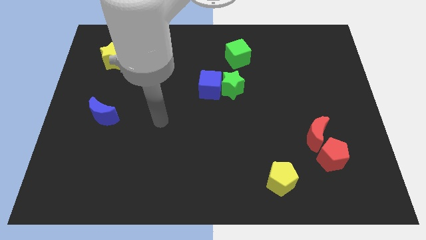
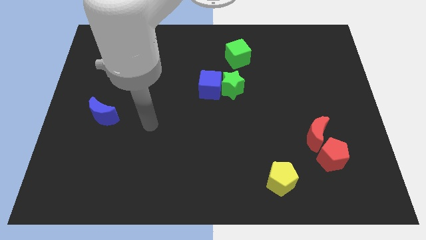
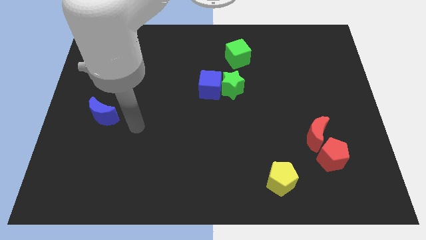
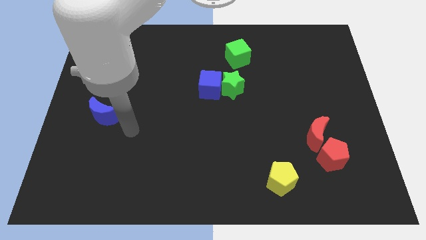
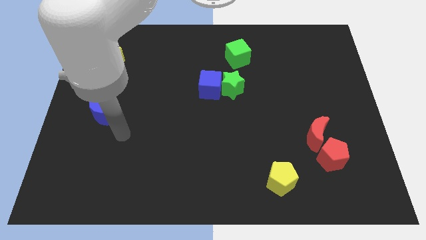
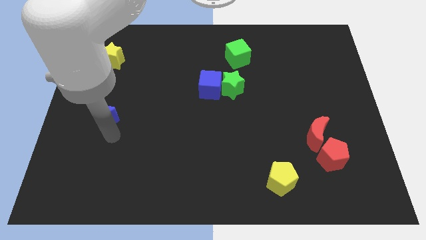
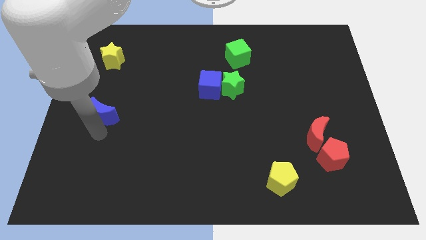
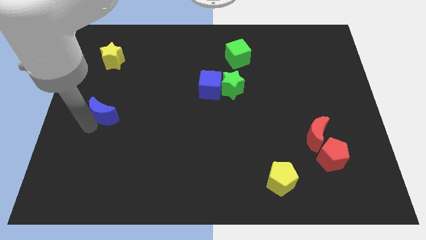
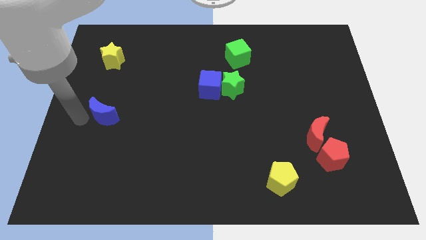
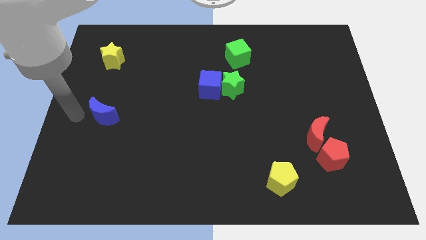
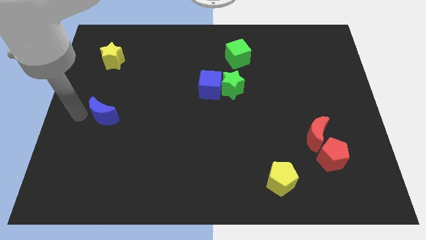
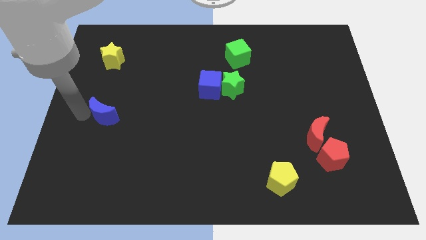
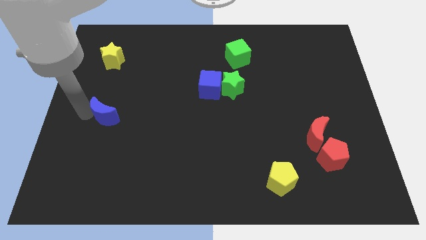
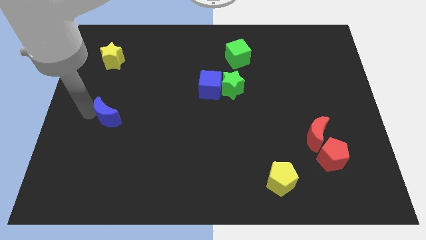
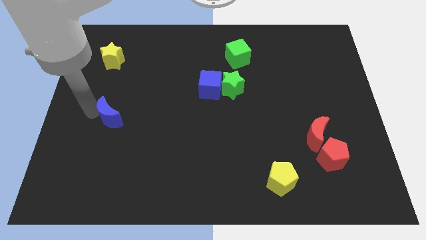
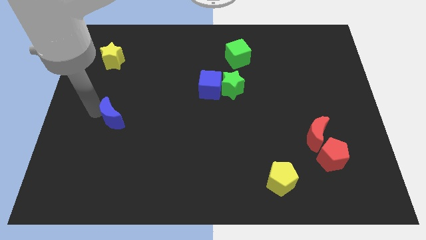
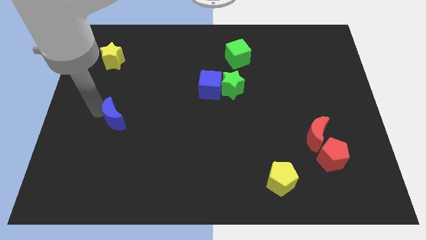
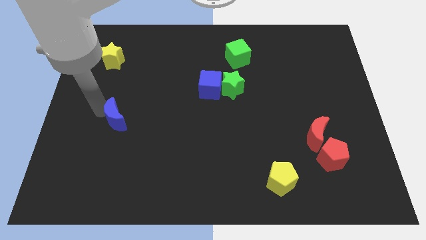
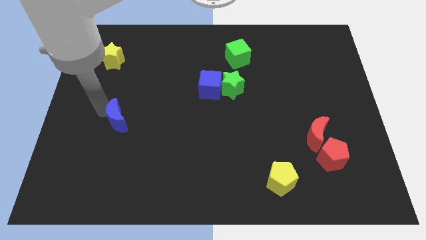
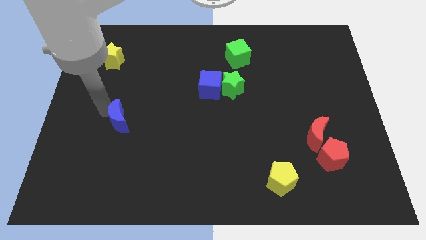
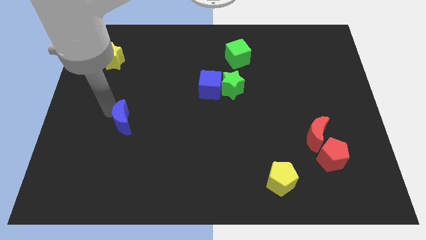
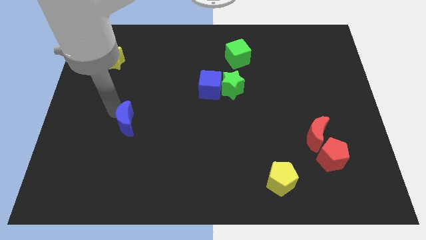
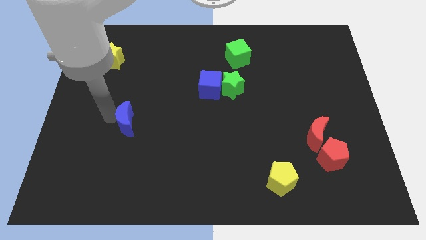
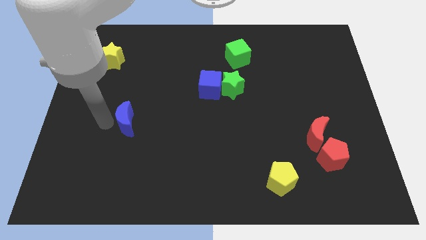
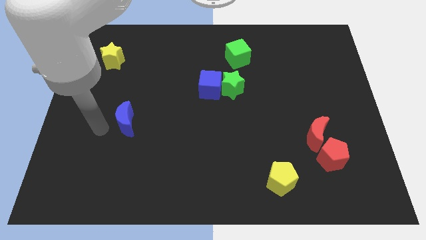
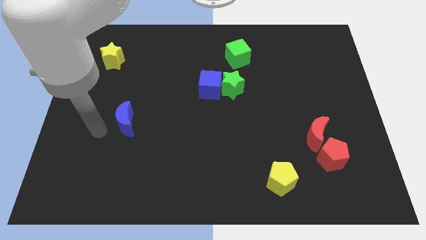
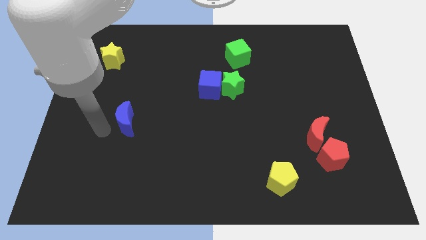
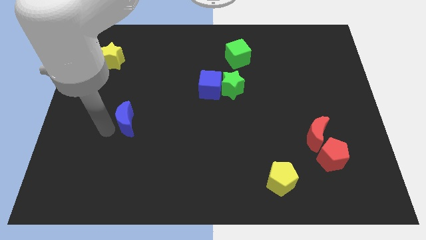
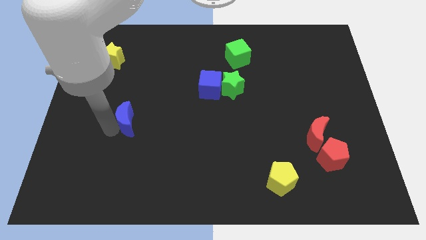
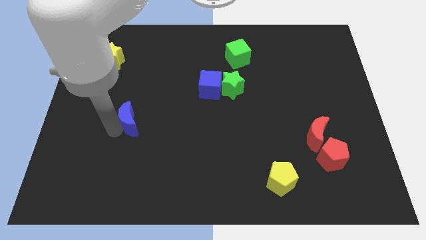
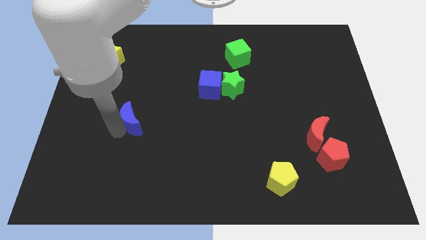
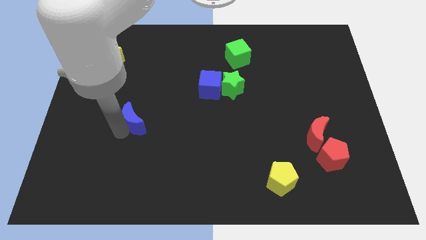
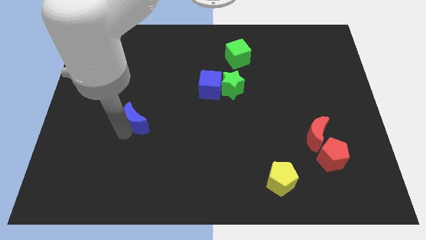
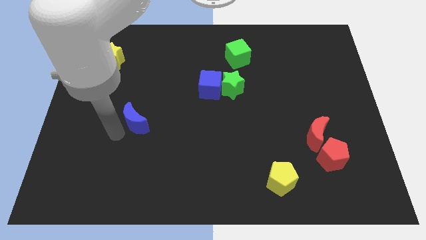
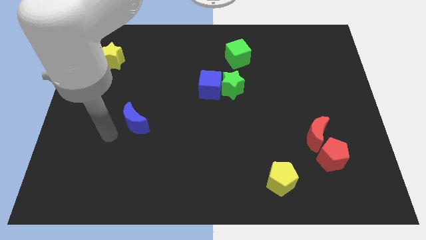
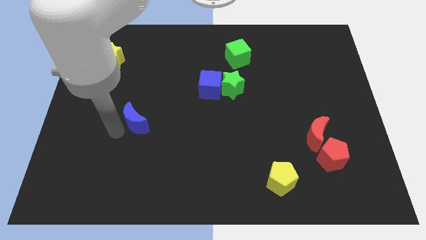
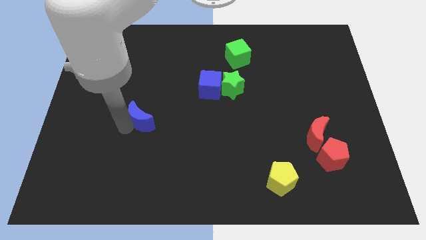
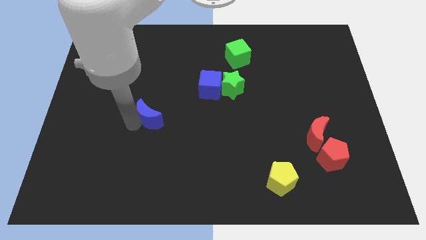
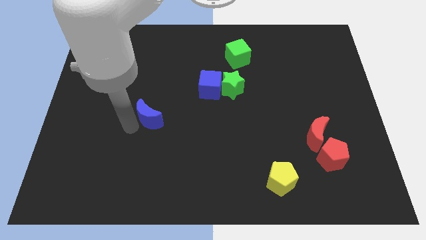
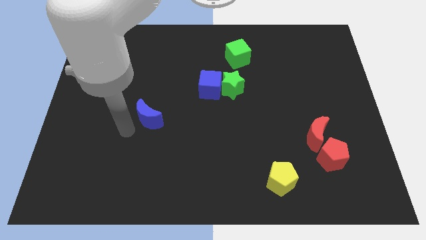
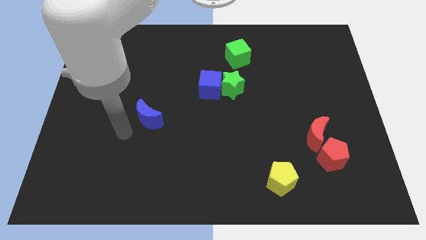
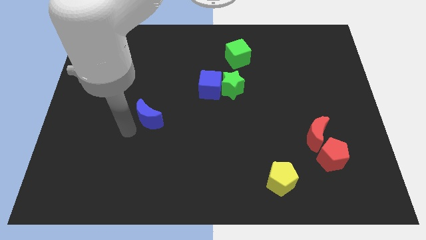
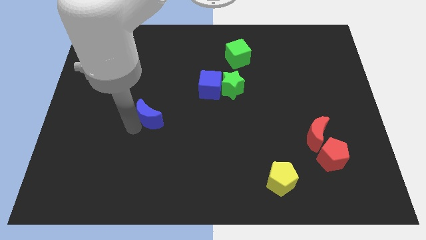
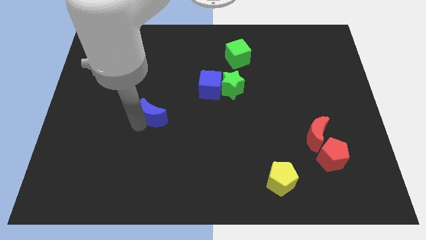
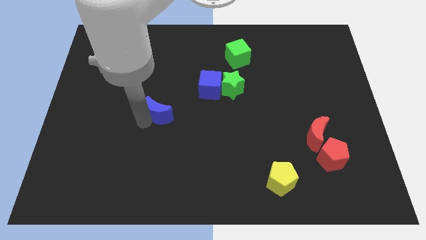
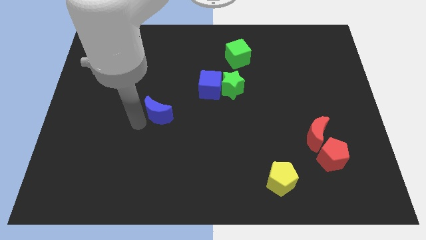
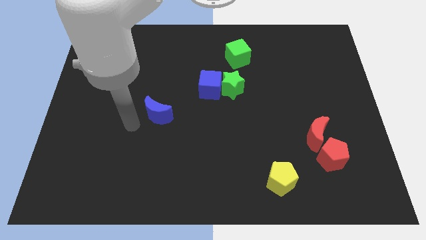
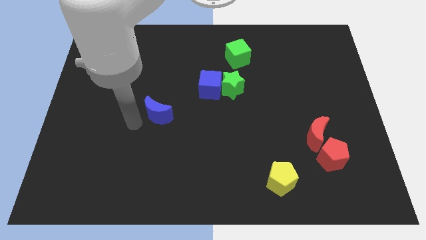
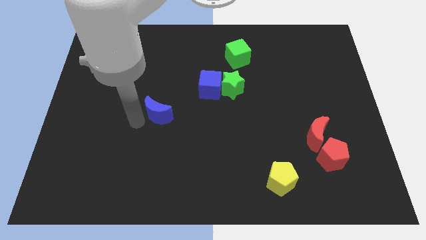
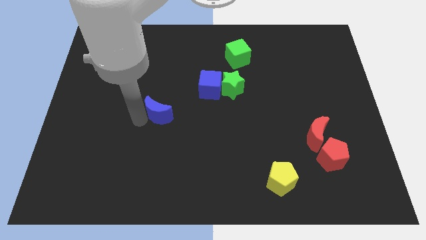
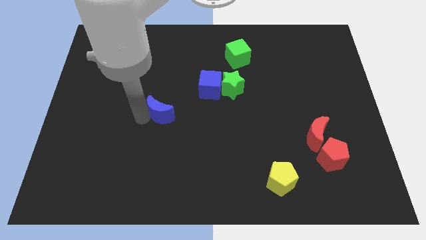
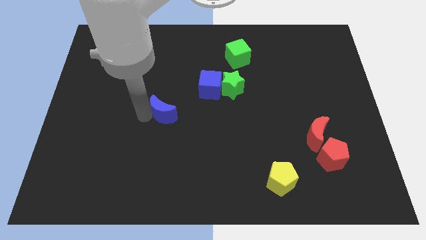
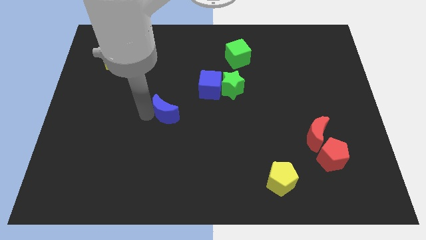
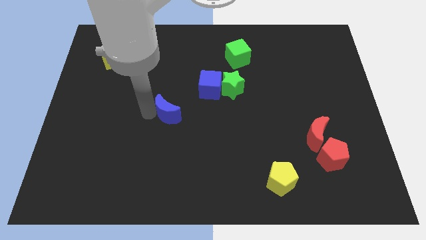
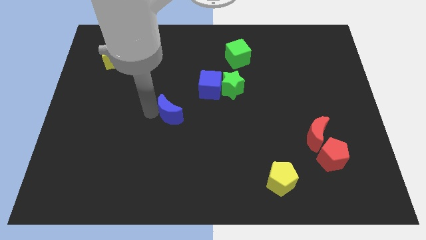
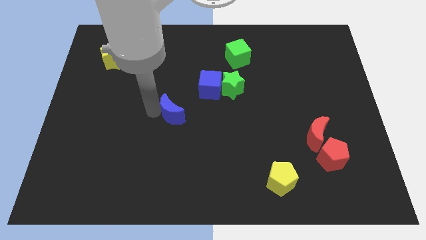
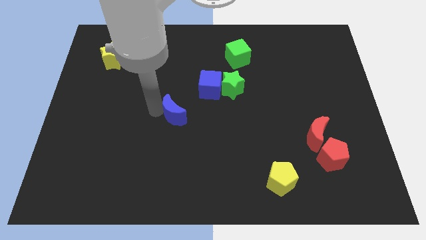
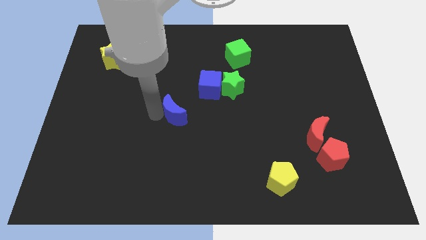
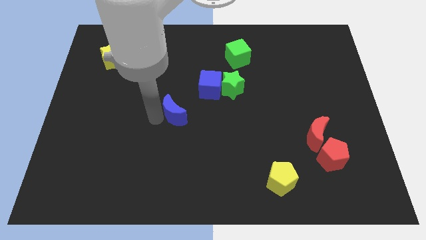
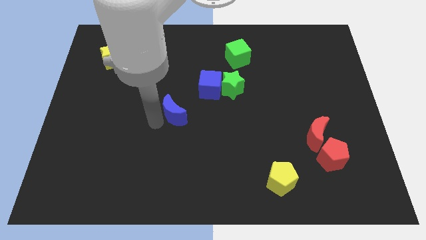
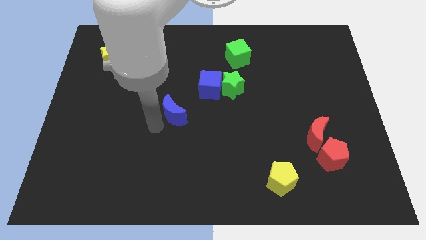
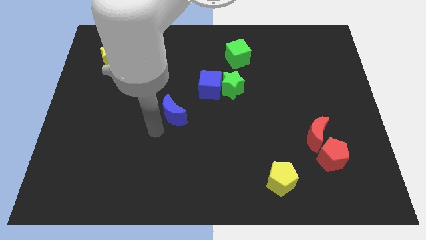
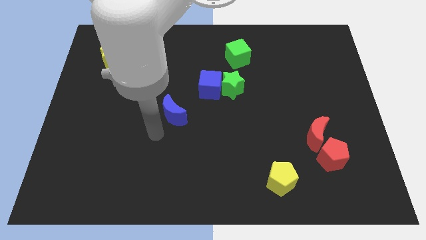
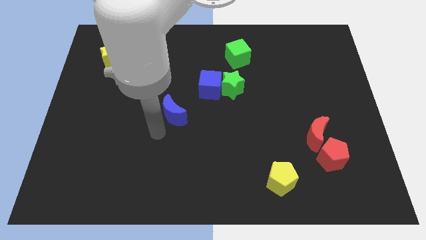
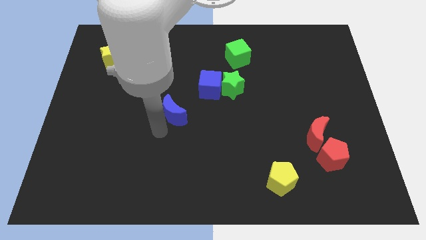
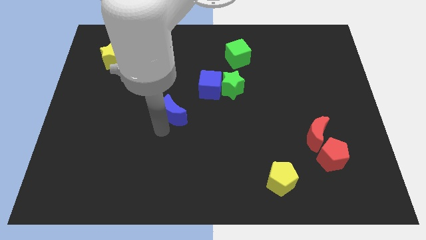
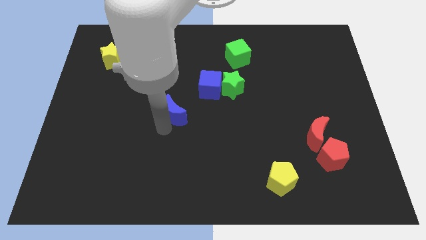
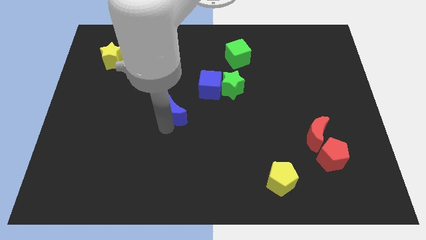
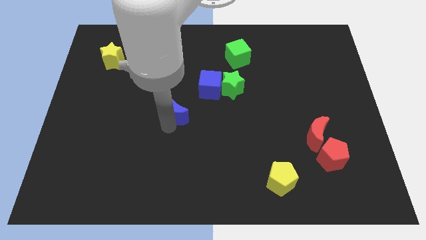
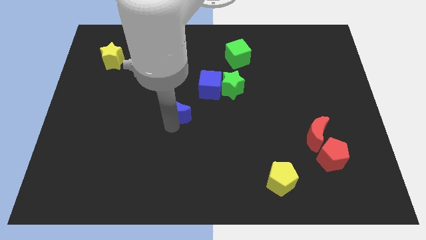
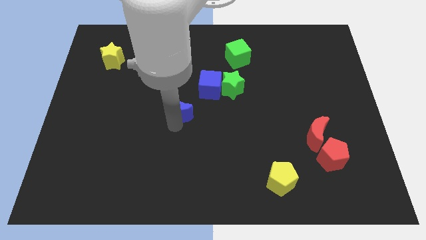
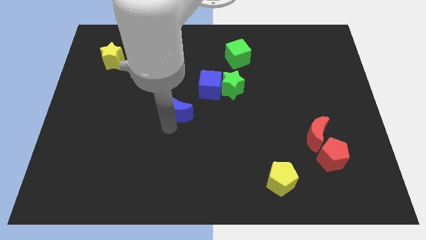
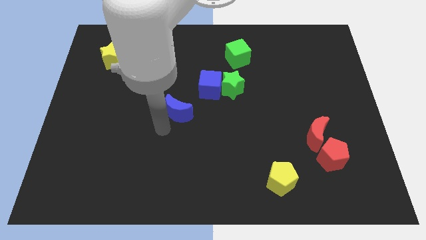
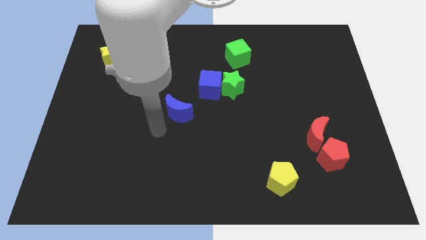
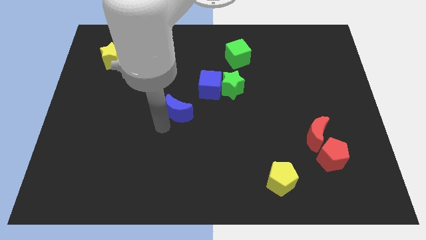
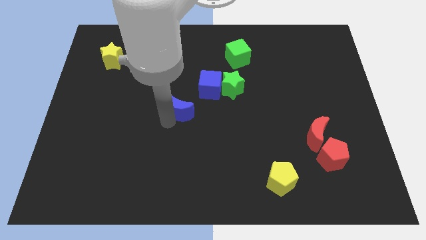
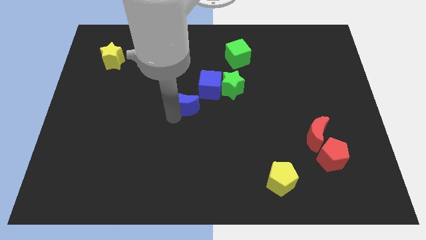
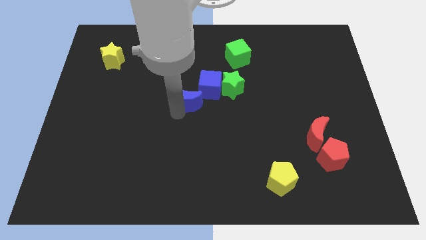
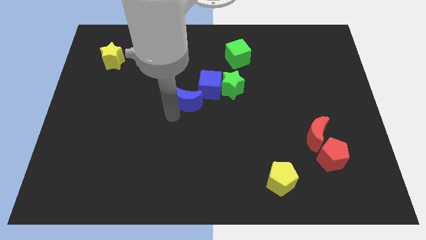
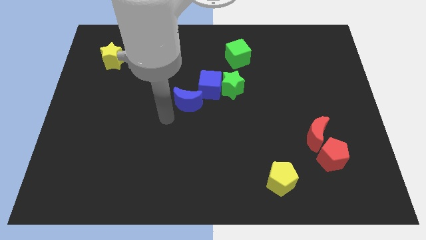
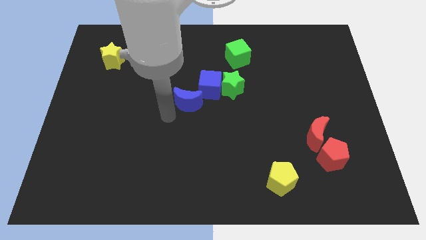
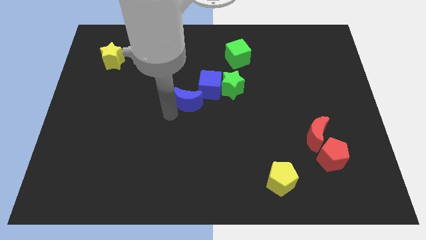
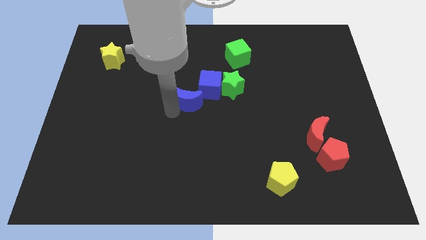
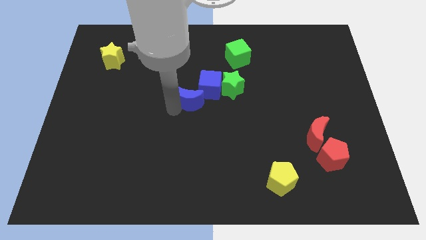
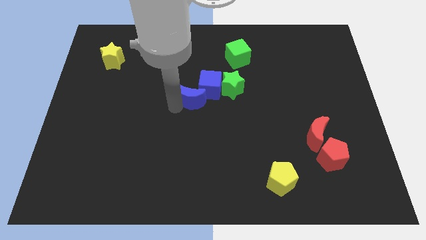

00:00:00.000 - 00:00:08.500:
slide the blue moon towards the blue cube
